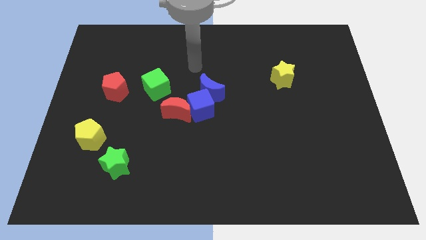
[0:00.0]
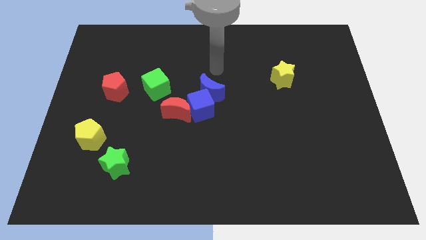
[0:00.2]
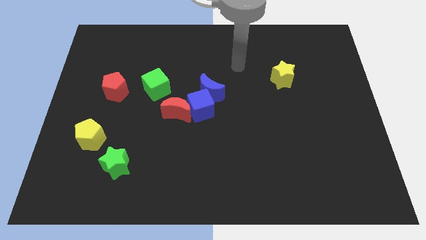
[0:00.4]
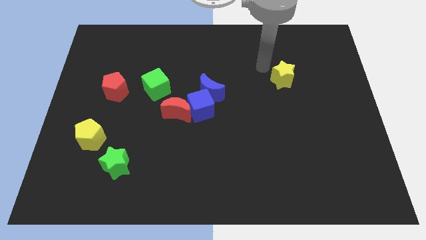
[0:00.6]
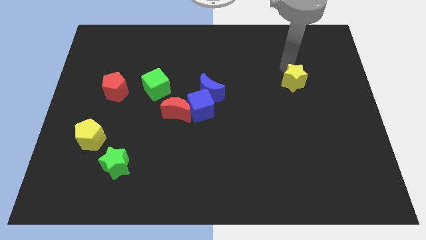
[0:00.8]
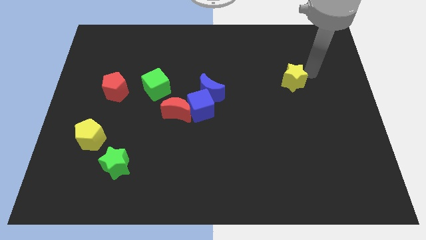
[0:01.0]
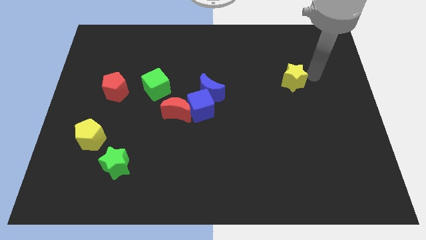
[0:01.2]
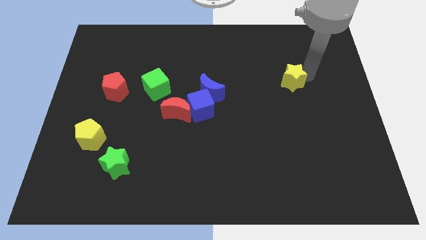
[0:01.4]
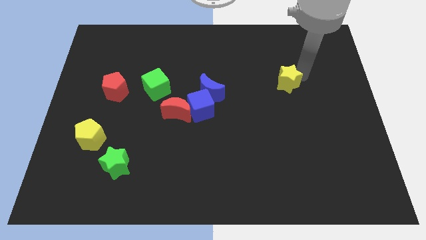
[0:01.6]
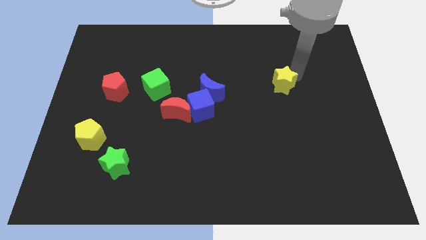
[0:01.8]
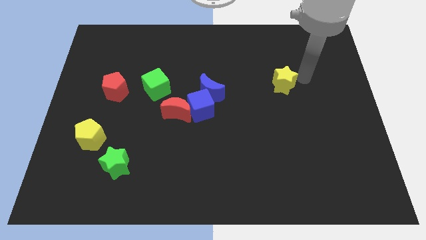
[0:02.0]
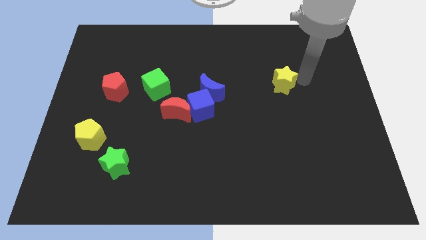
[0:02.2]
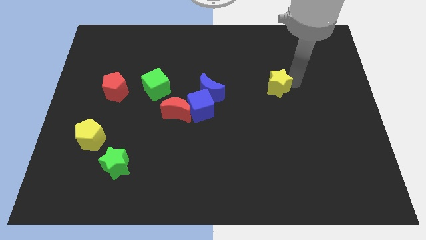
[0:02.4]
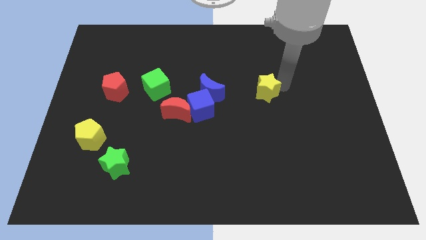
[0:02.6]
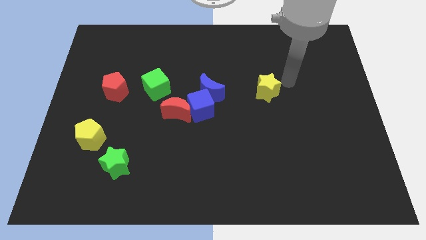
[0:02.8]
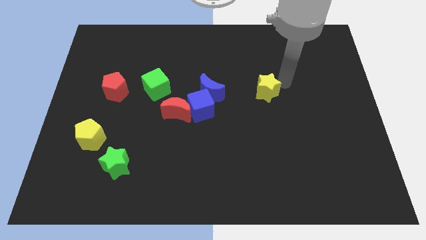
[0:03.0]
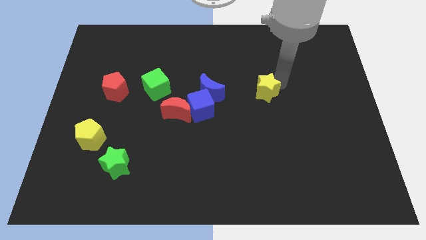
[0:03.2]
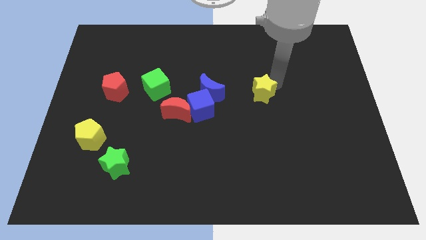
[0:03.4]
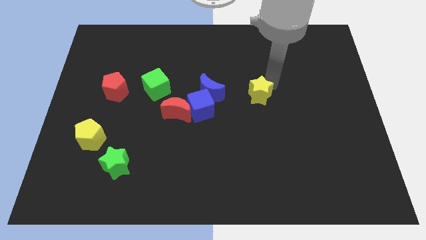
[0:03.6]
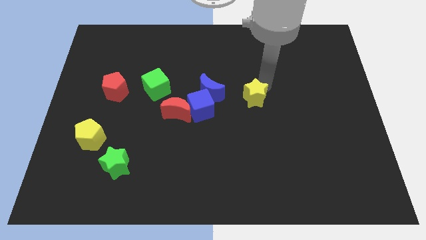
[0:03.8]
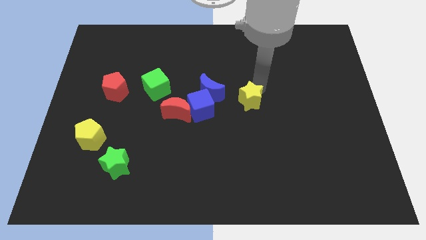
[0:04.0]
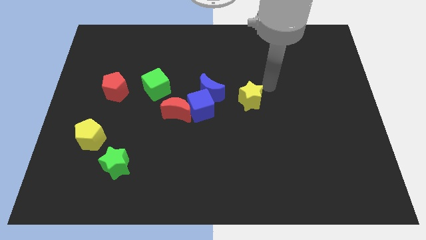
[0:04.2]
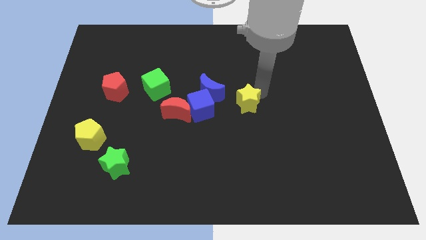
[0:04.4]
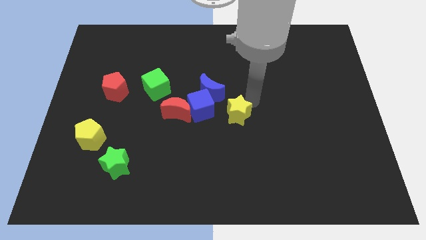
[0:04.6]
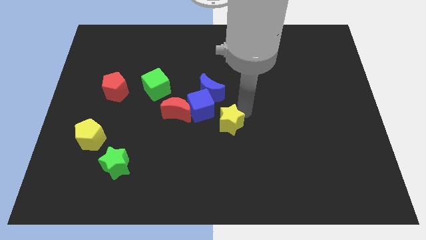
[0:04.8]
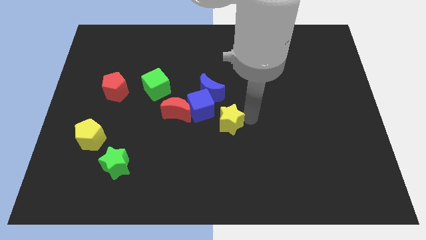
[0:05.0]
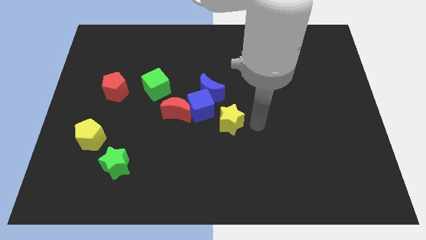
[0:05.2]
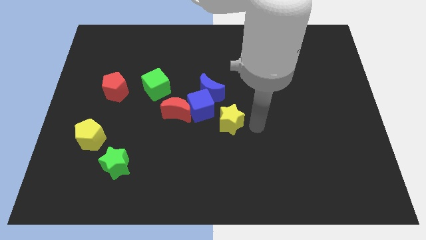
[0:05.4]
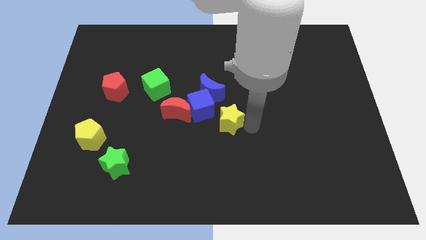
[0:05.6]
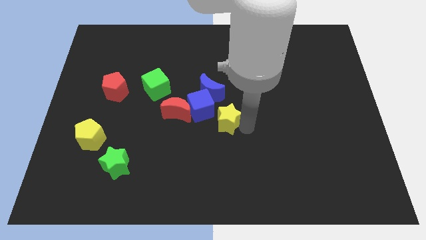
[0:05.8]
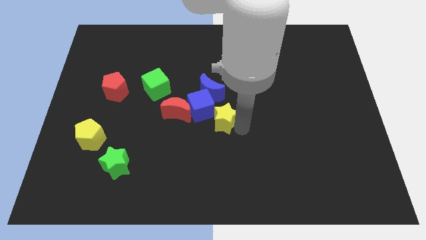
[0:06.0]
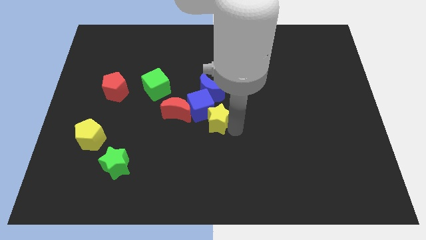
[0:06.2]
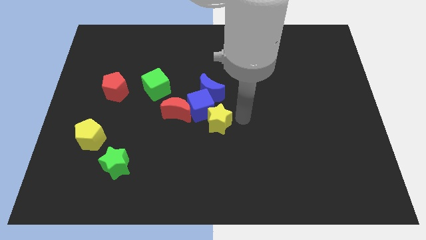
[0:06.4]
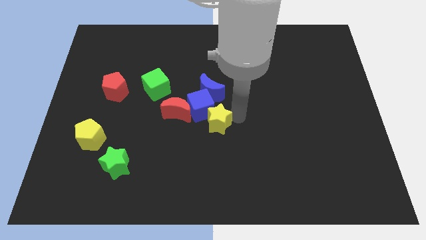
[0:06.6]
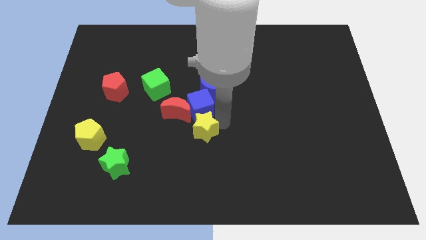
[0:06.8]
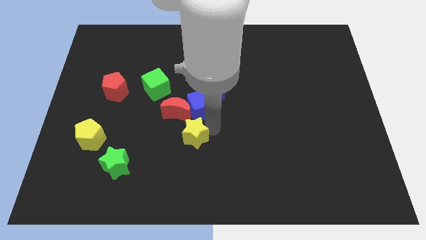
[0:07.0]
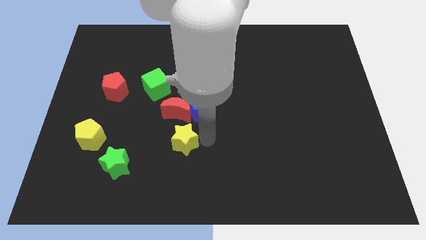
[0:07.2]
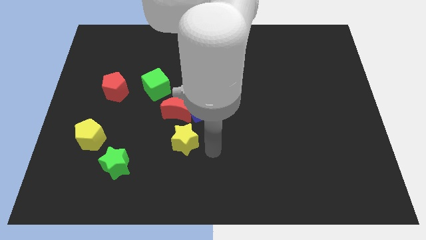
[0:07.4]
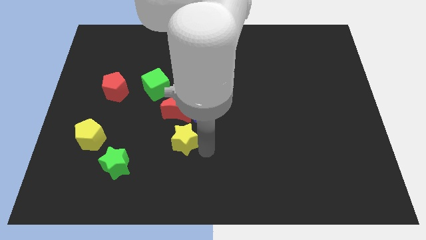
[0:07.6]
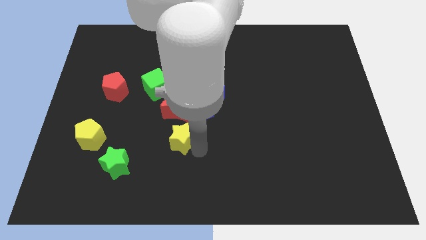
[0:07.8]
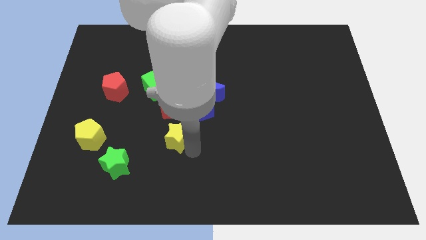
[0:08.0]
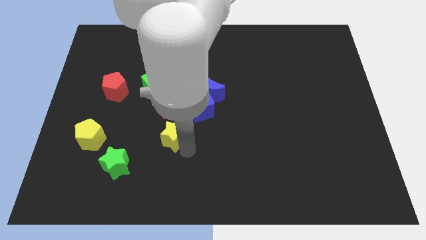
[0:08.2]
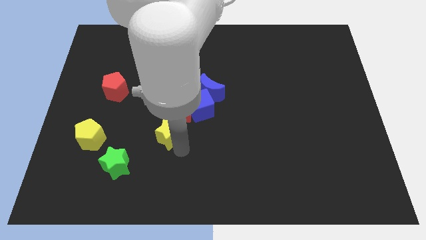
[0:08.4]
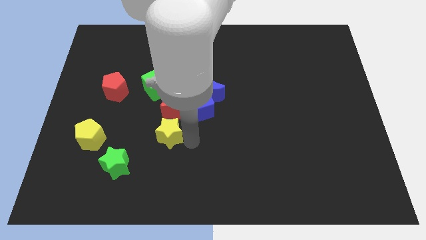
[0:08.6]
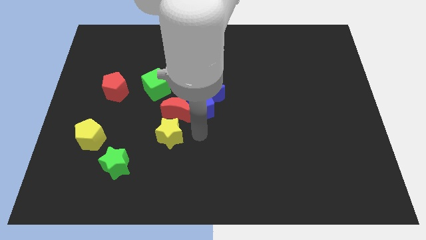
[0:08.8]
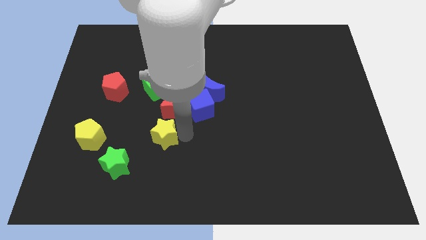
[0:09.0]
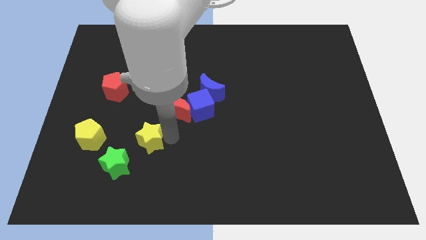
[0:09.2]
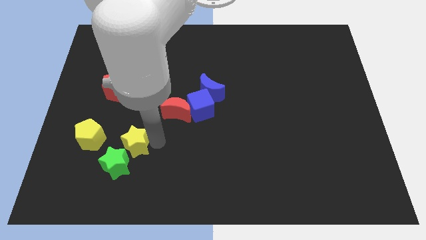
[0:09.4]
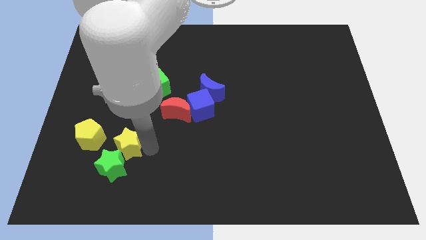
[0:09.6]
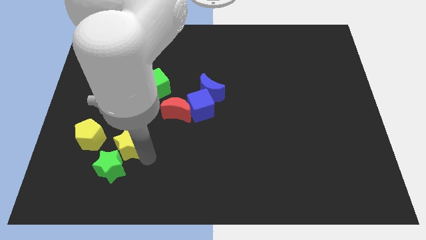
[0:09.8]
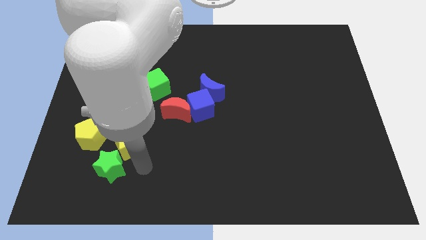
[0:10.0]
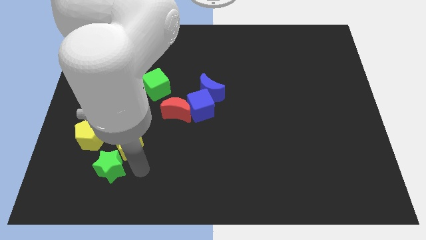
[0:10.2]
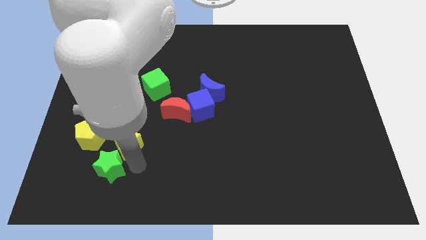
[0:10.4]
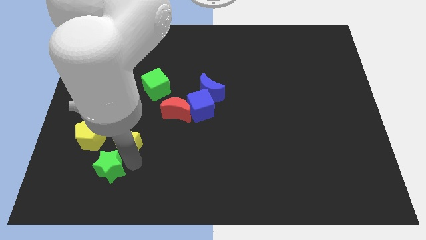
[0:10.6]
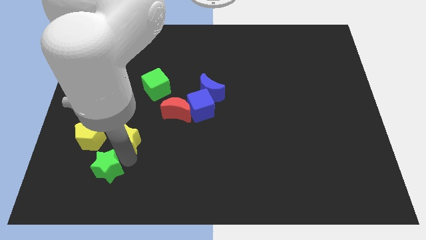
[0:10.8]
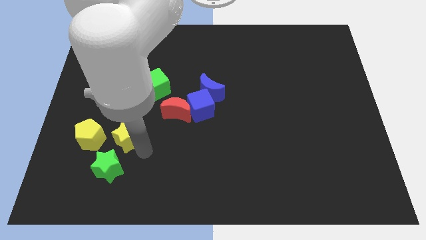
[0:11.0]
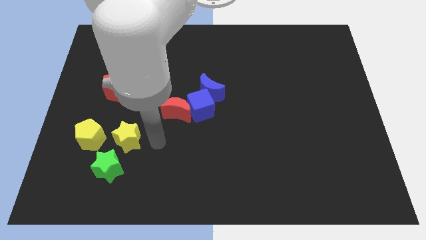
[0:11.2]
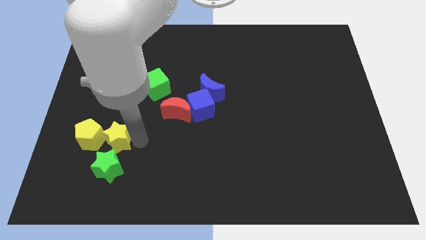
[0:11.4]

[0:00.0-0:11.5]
push the yellow star towards the yellow pentagon

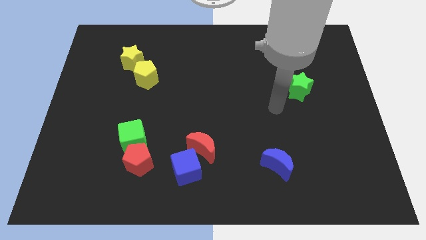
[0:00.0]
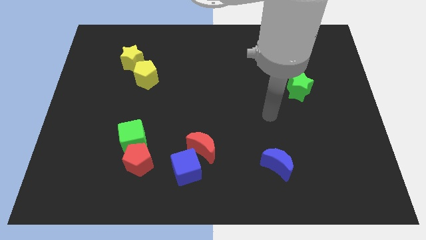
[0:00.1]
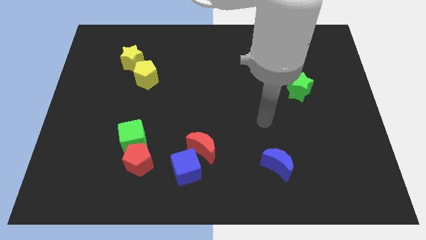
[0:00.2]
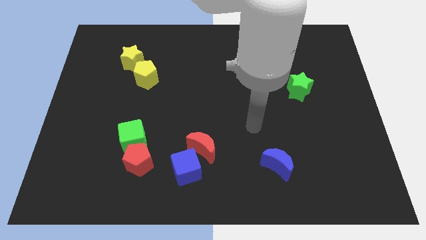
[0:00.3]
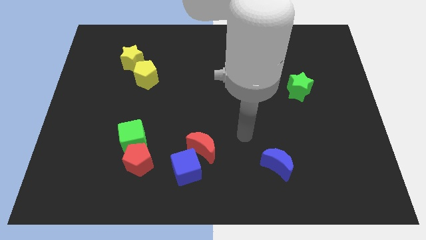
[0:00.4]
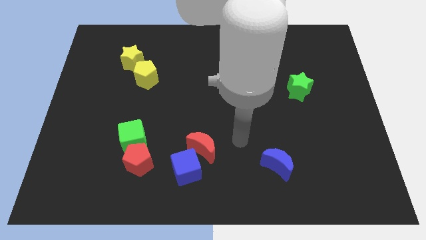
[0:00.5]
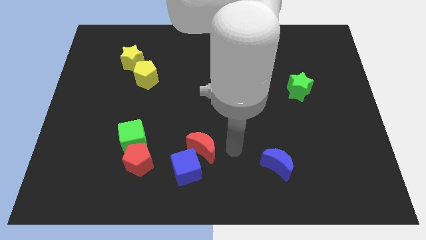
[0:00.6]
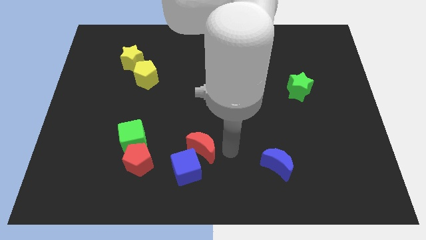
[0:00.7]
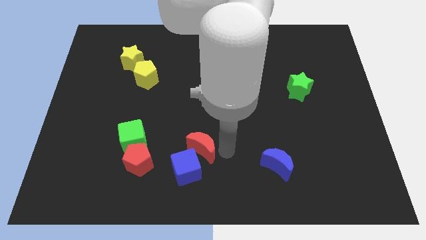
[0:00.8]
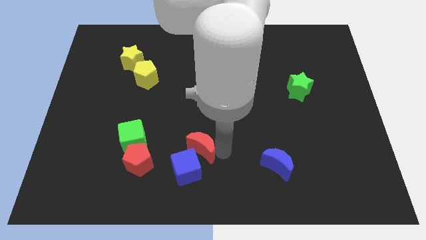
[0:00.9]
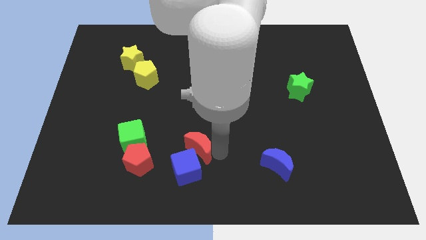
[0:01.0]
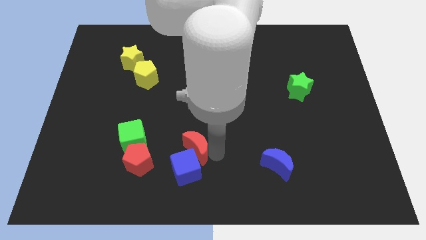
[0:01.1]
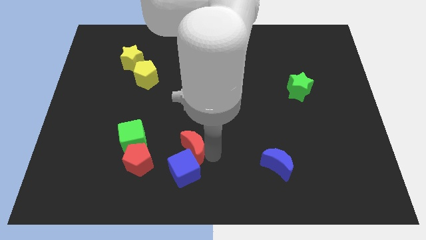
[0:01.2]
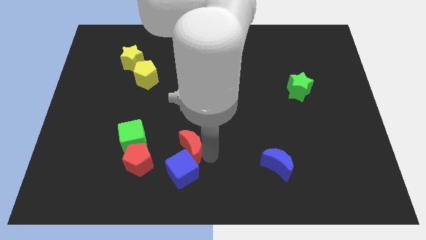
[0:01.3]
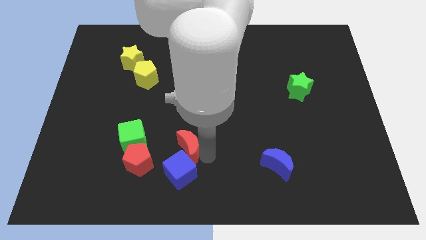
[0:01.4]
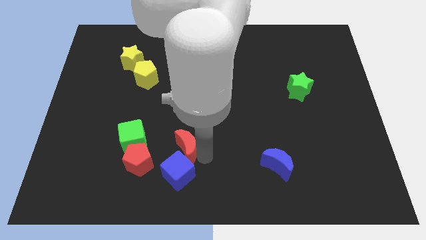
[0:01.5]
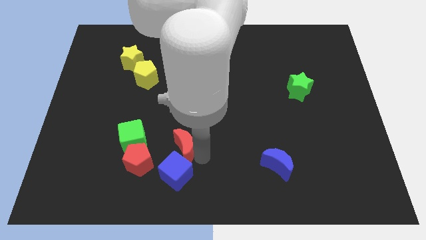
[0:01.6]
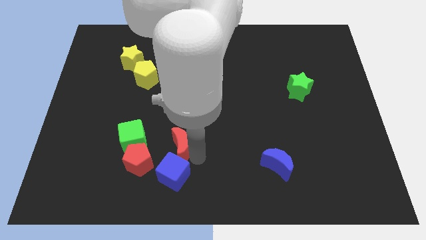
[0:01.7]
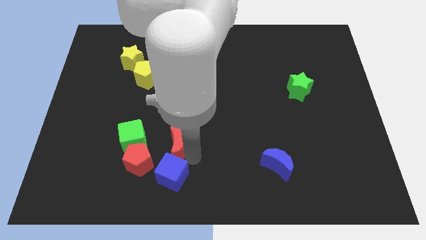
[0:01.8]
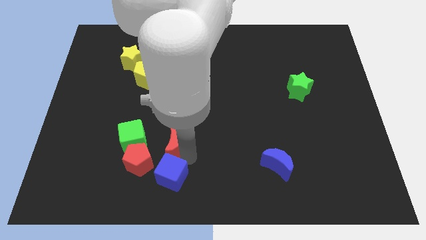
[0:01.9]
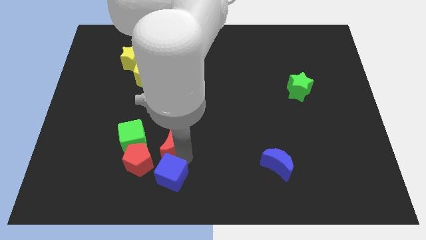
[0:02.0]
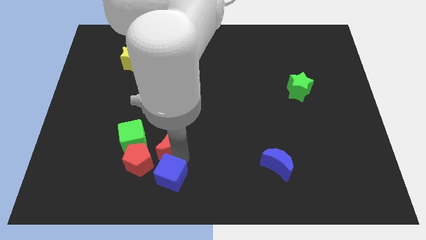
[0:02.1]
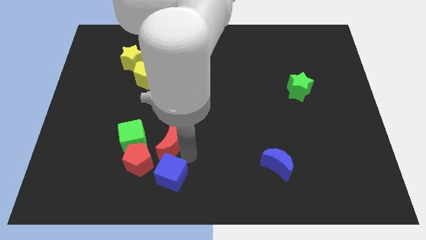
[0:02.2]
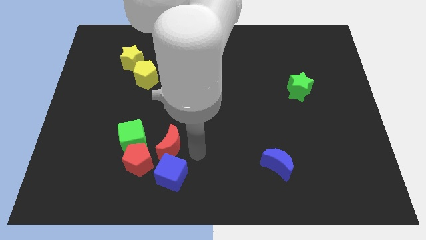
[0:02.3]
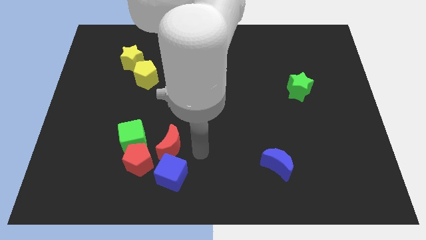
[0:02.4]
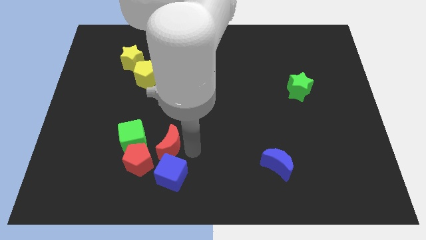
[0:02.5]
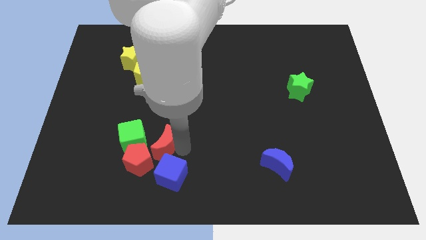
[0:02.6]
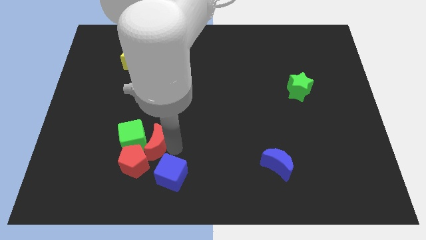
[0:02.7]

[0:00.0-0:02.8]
put the red moon to the green cube
